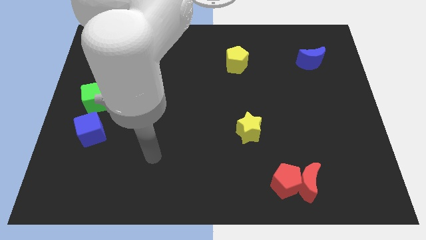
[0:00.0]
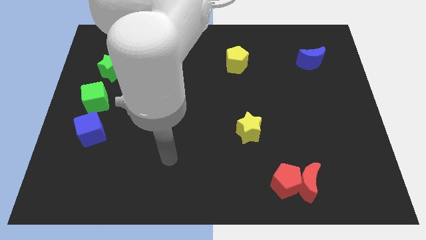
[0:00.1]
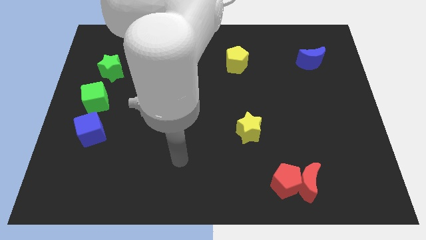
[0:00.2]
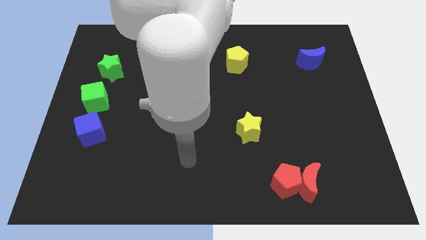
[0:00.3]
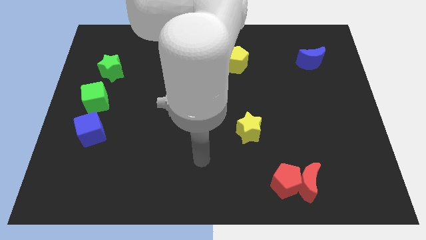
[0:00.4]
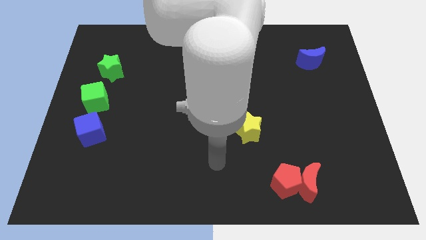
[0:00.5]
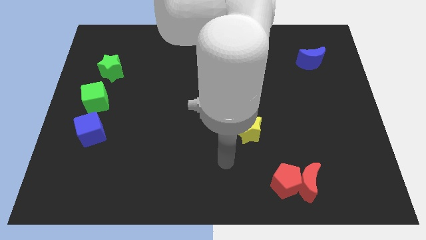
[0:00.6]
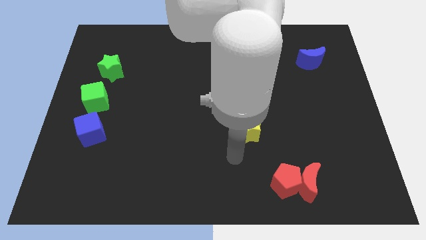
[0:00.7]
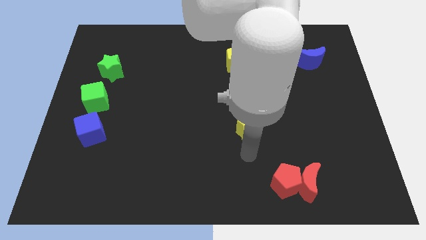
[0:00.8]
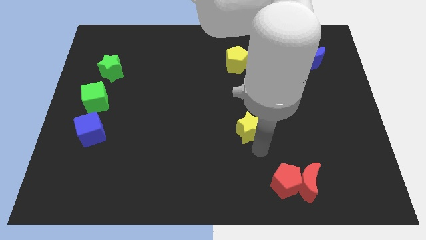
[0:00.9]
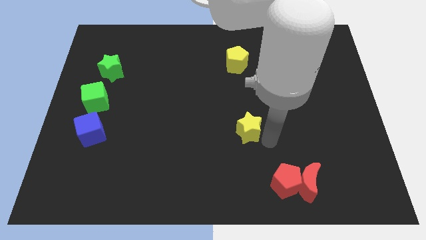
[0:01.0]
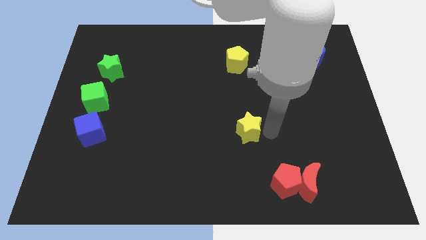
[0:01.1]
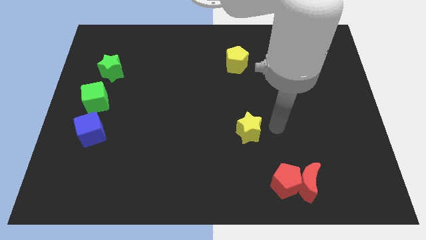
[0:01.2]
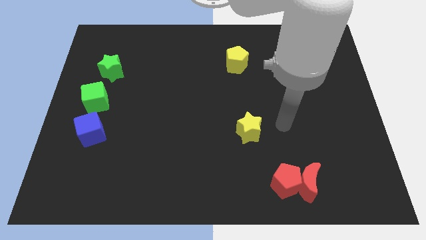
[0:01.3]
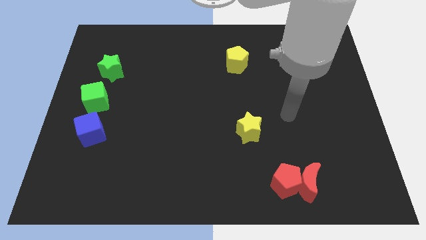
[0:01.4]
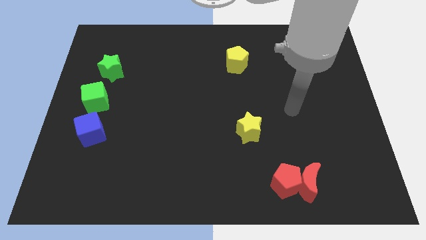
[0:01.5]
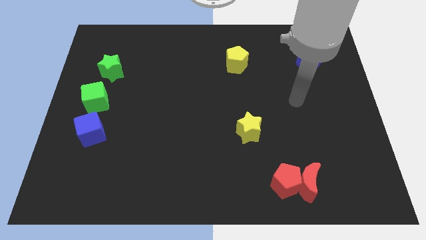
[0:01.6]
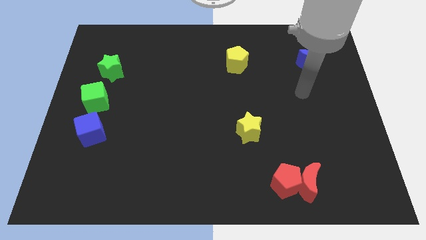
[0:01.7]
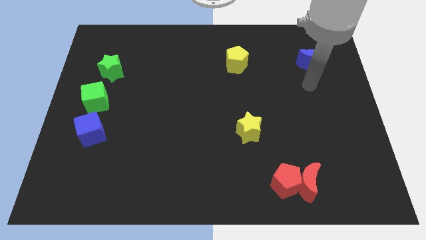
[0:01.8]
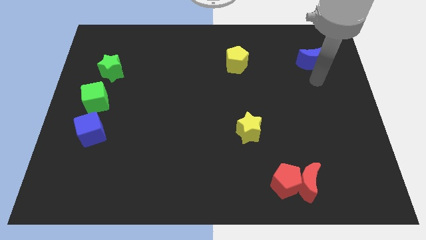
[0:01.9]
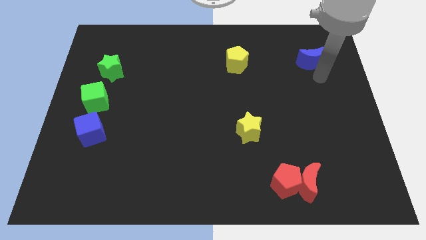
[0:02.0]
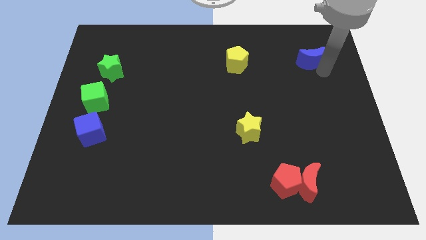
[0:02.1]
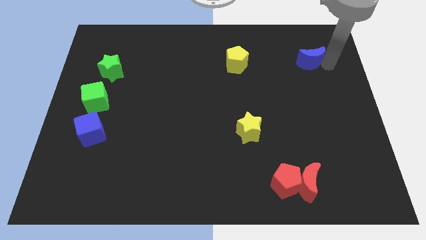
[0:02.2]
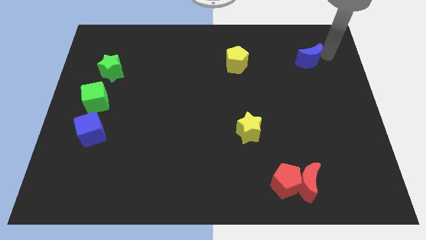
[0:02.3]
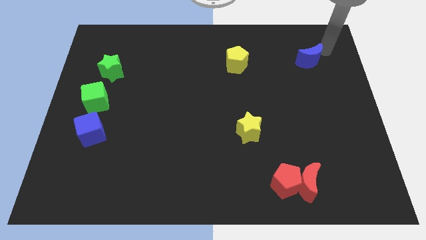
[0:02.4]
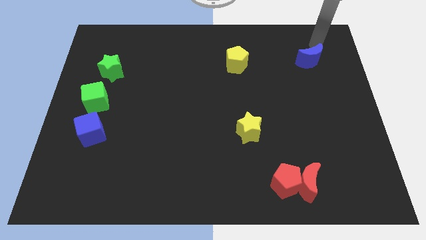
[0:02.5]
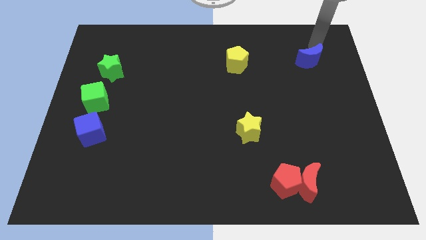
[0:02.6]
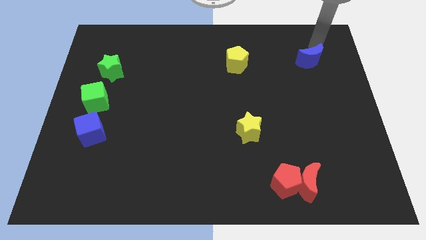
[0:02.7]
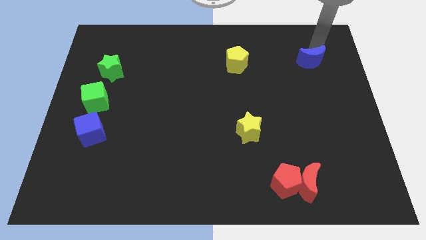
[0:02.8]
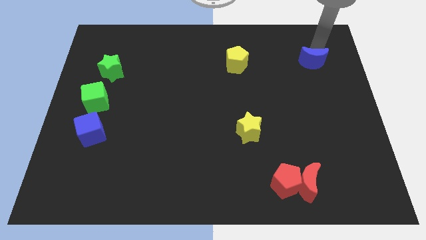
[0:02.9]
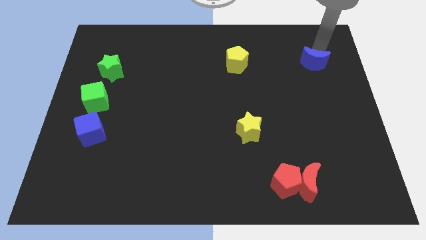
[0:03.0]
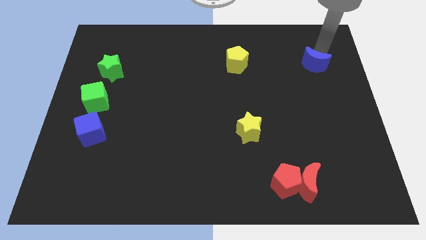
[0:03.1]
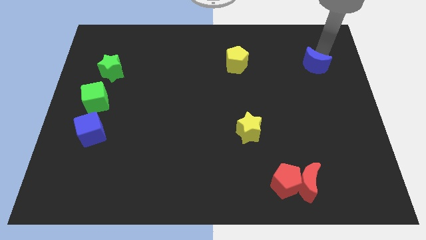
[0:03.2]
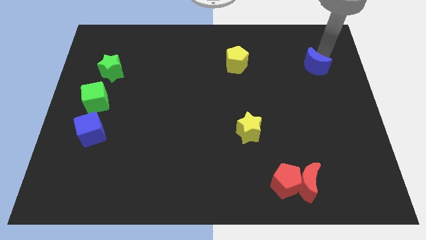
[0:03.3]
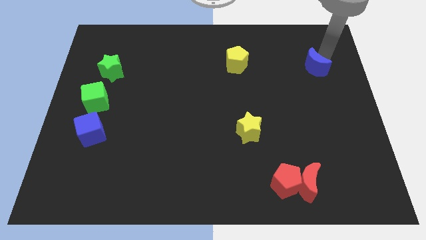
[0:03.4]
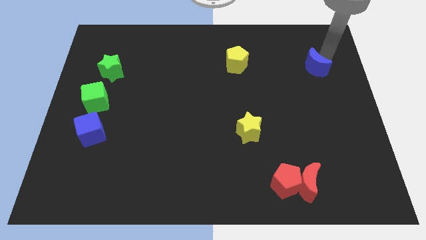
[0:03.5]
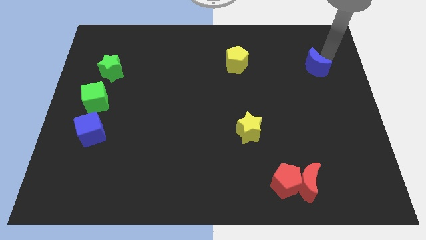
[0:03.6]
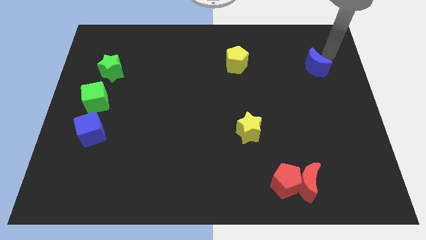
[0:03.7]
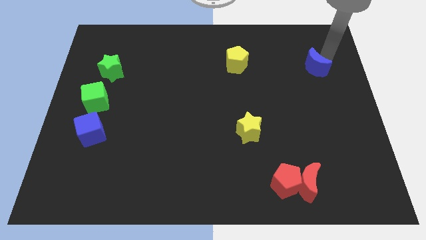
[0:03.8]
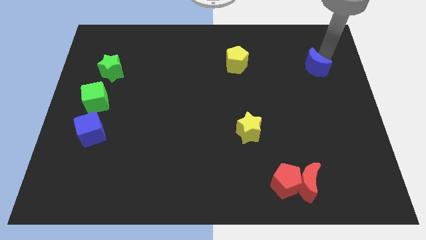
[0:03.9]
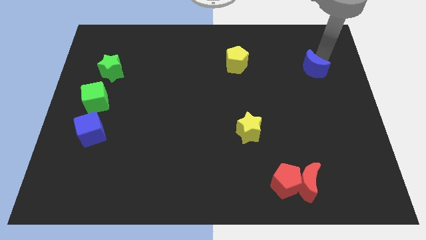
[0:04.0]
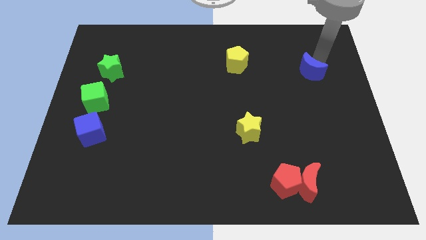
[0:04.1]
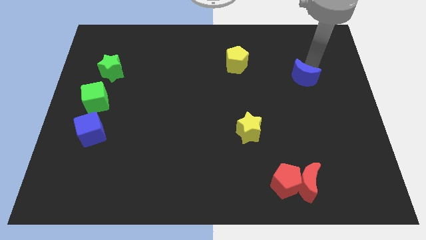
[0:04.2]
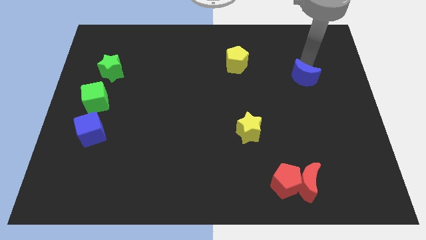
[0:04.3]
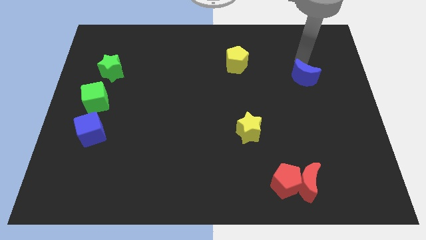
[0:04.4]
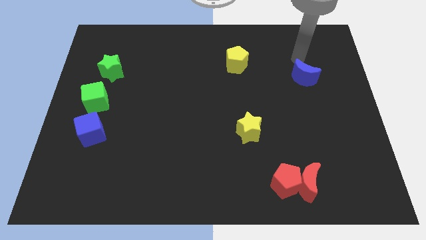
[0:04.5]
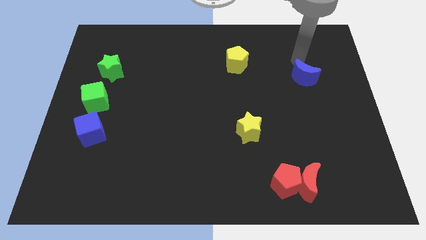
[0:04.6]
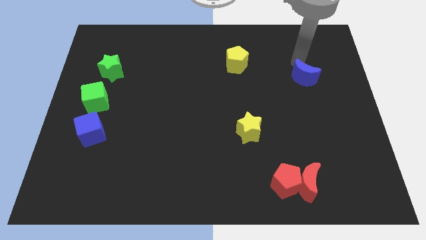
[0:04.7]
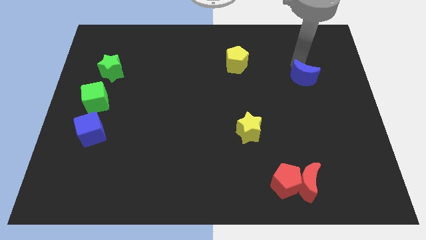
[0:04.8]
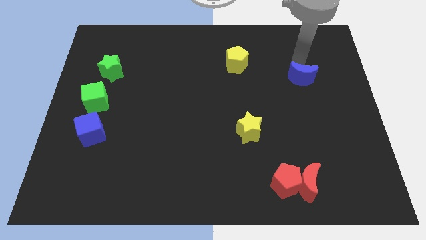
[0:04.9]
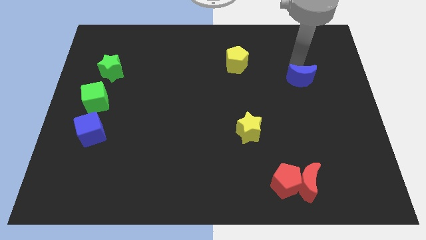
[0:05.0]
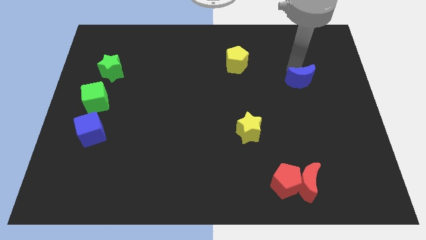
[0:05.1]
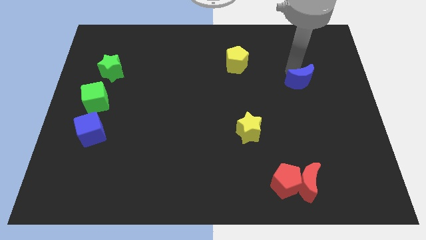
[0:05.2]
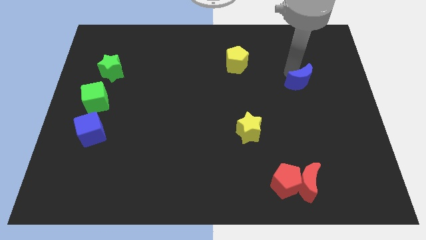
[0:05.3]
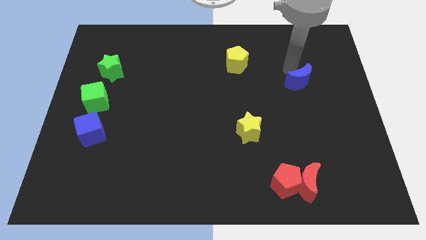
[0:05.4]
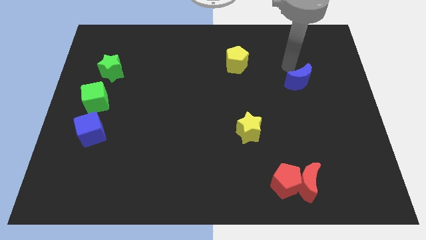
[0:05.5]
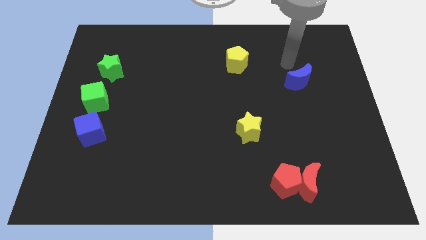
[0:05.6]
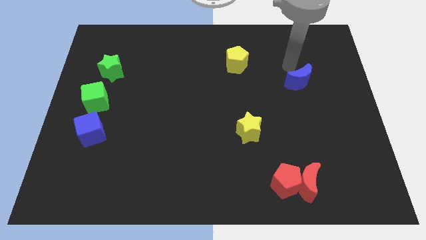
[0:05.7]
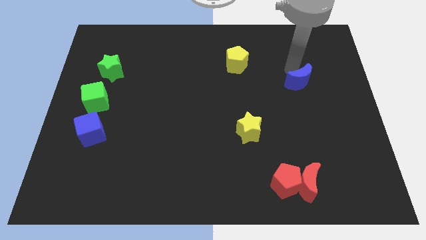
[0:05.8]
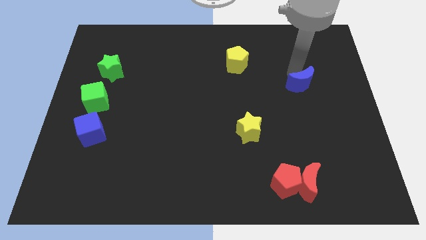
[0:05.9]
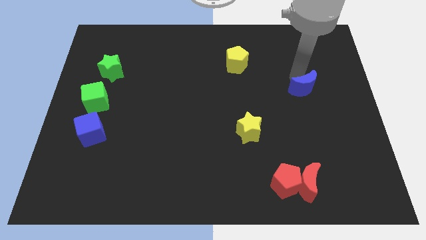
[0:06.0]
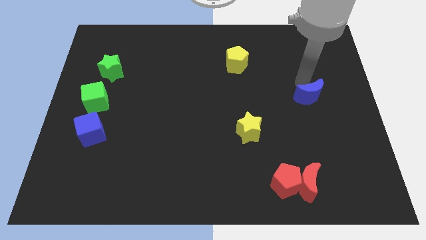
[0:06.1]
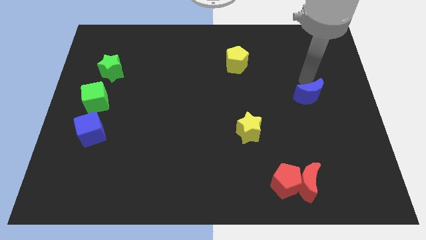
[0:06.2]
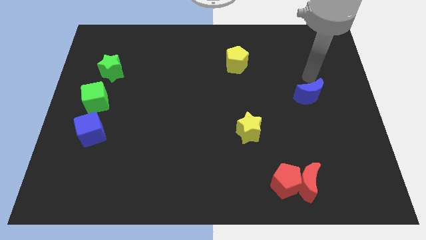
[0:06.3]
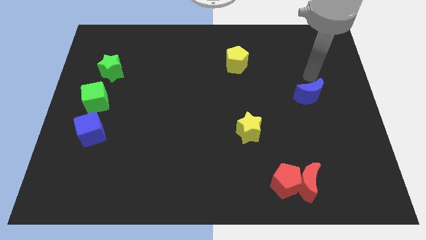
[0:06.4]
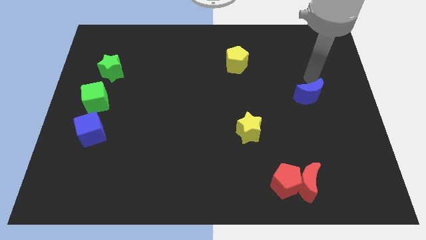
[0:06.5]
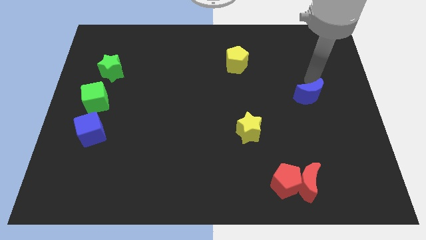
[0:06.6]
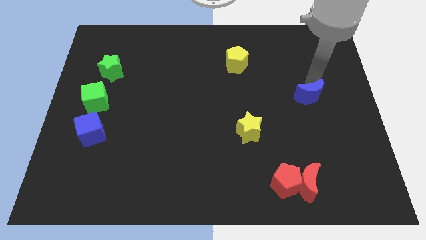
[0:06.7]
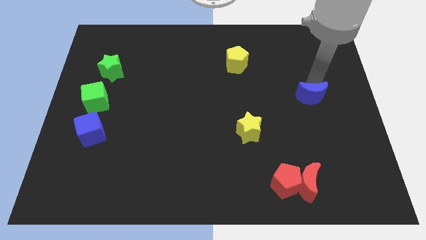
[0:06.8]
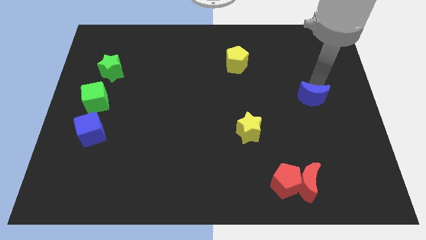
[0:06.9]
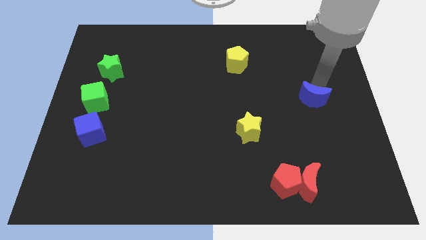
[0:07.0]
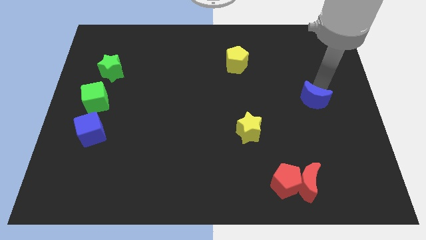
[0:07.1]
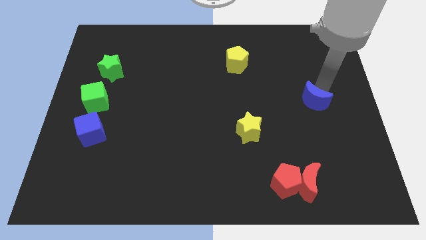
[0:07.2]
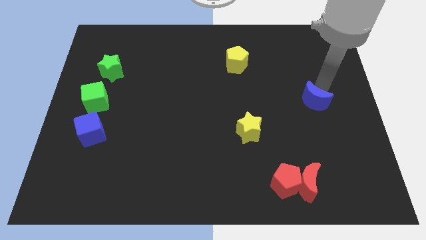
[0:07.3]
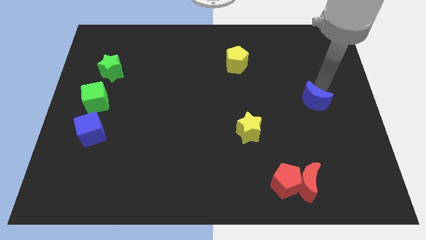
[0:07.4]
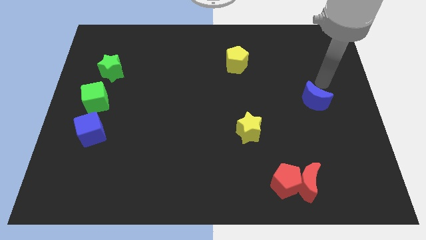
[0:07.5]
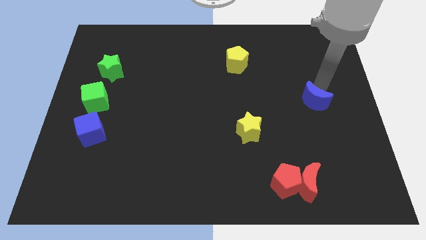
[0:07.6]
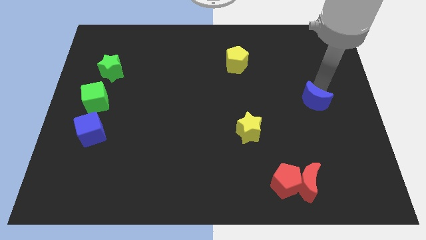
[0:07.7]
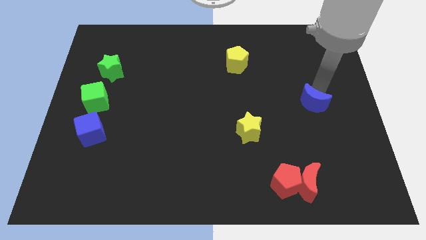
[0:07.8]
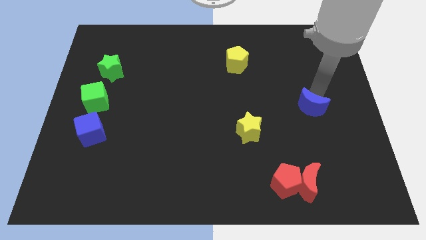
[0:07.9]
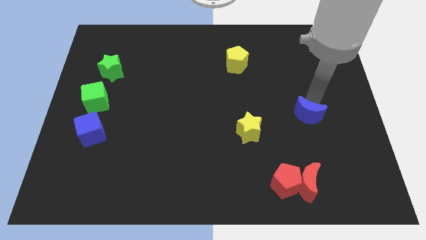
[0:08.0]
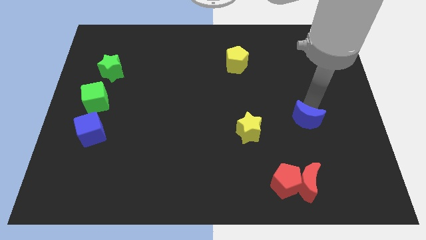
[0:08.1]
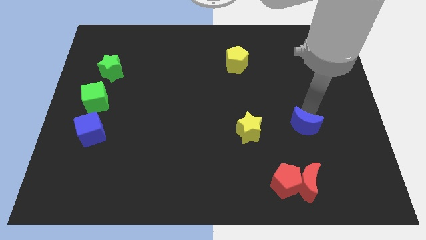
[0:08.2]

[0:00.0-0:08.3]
push the blue moon to the top of the red moon
